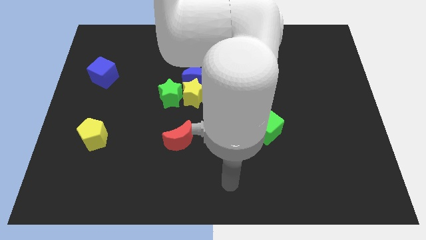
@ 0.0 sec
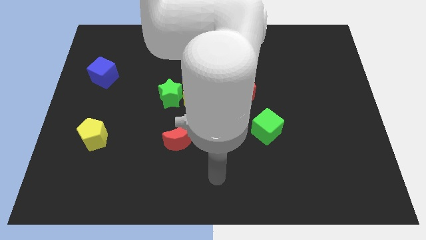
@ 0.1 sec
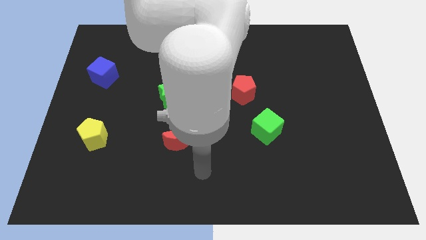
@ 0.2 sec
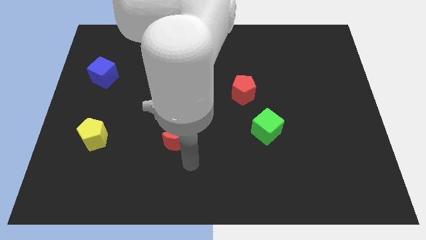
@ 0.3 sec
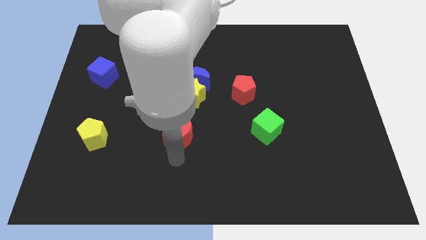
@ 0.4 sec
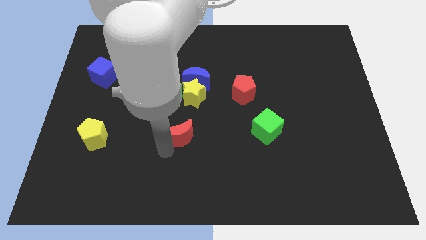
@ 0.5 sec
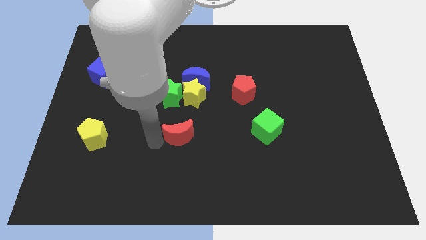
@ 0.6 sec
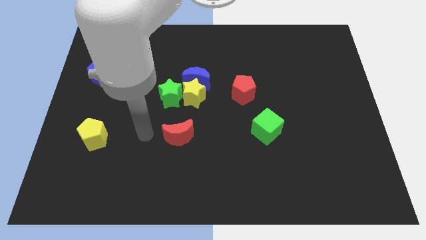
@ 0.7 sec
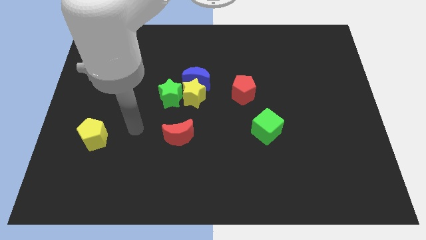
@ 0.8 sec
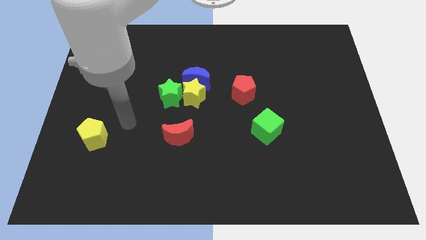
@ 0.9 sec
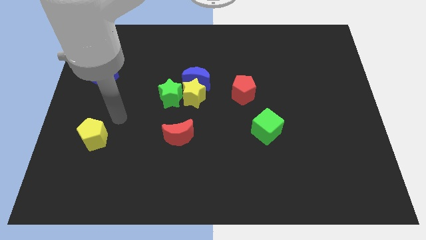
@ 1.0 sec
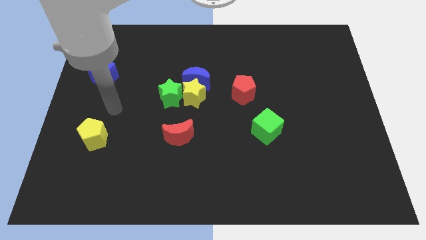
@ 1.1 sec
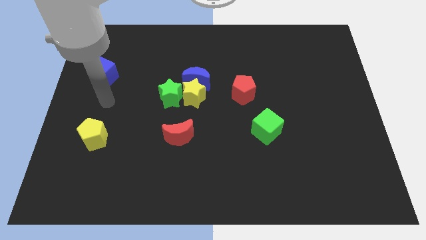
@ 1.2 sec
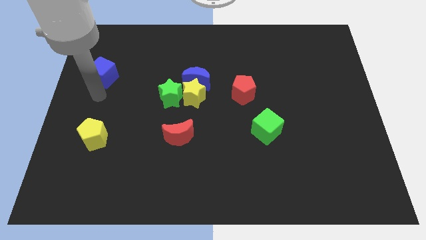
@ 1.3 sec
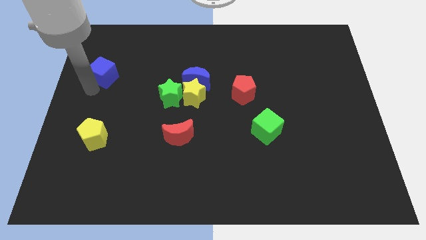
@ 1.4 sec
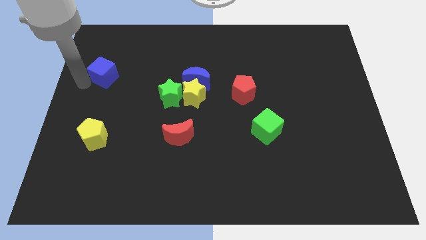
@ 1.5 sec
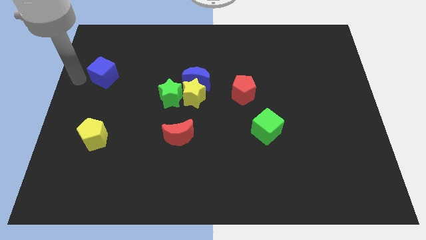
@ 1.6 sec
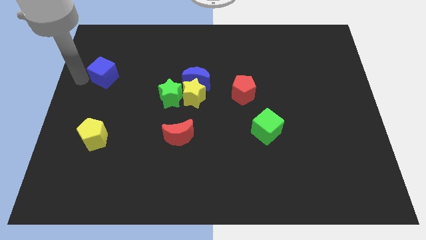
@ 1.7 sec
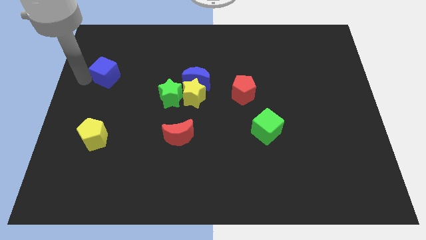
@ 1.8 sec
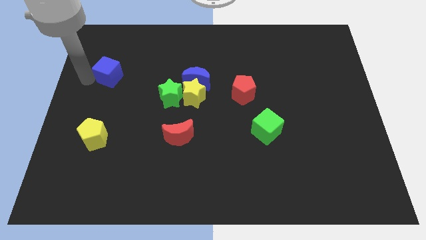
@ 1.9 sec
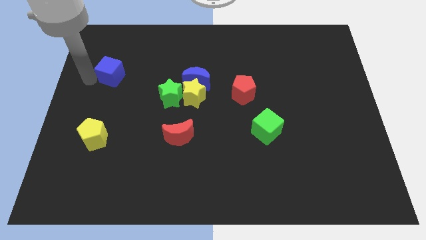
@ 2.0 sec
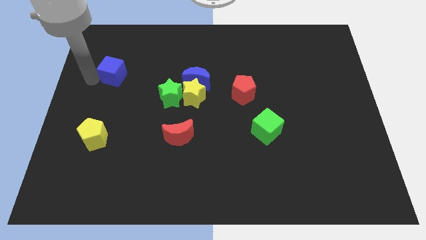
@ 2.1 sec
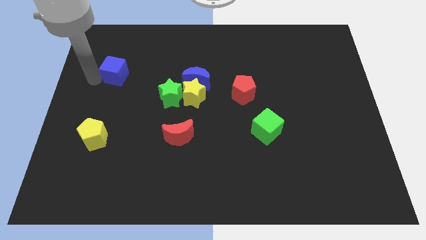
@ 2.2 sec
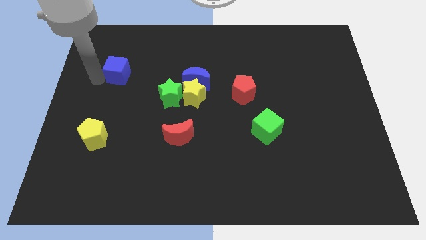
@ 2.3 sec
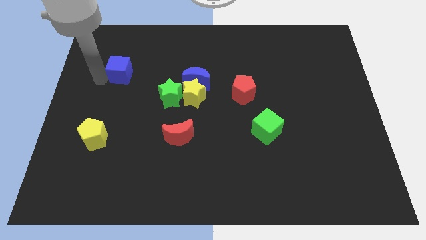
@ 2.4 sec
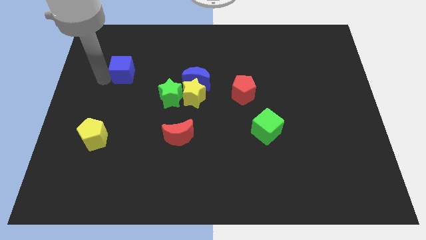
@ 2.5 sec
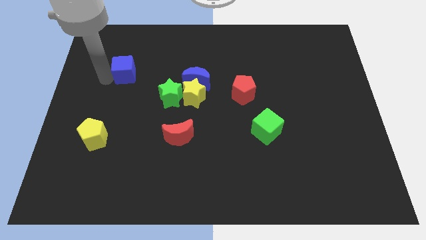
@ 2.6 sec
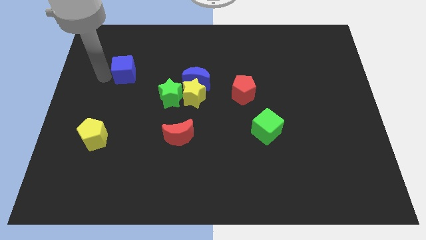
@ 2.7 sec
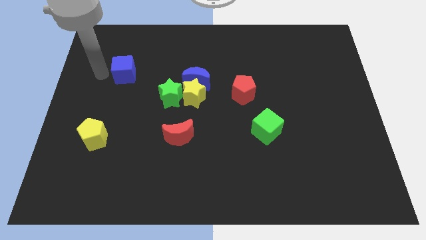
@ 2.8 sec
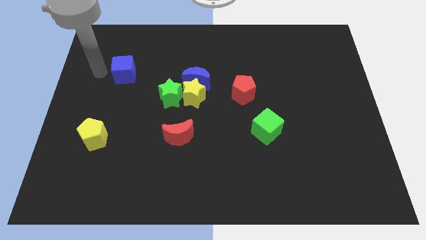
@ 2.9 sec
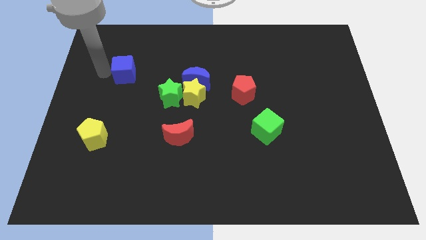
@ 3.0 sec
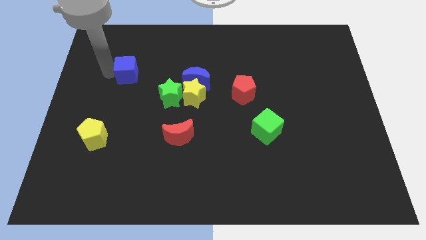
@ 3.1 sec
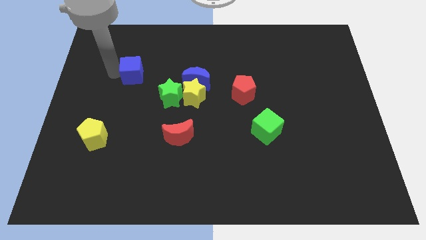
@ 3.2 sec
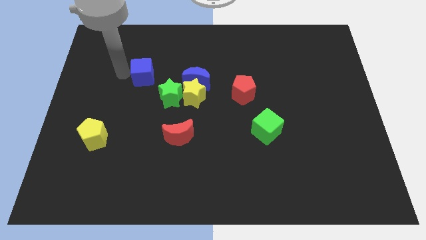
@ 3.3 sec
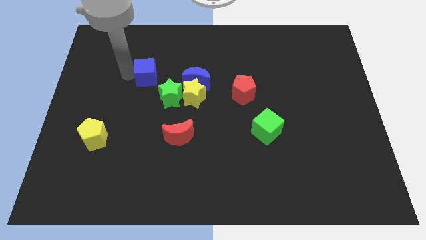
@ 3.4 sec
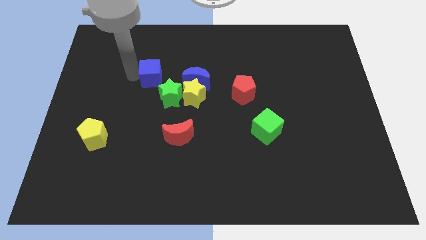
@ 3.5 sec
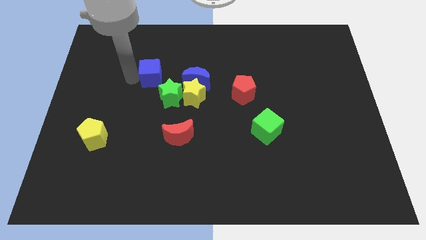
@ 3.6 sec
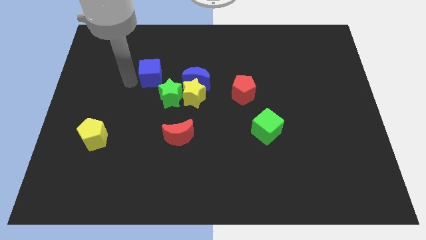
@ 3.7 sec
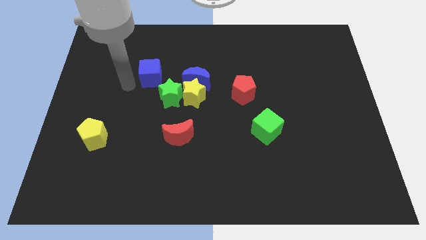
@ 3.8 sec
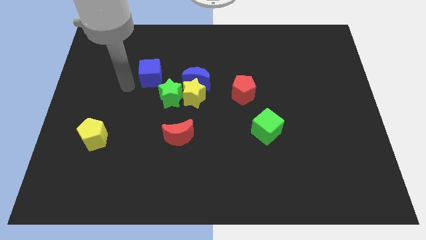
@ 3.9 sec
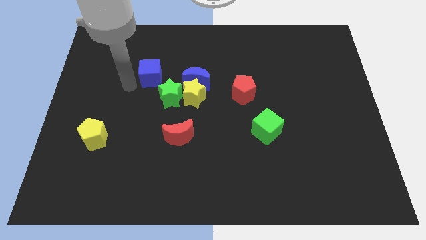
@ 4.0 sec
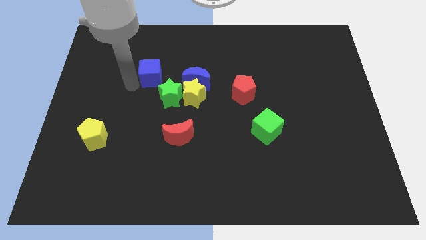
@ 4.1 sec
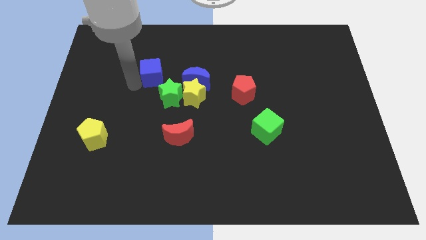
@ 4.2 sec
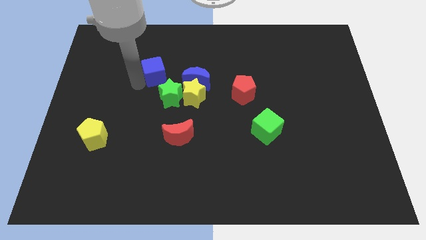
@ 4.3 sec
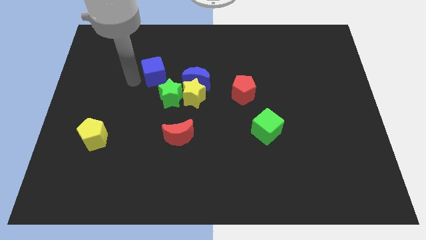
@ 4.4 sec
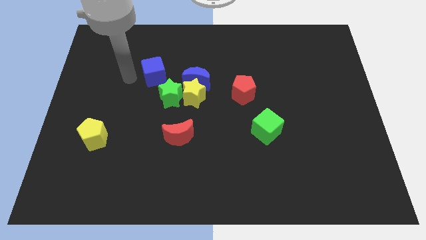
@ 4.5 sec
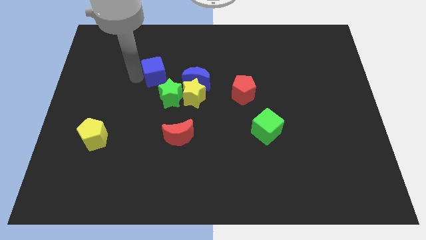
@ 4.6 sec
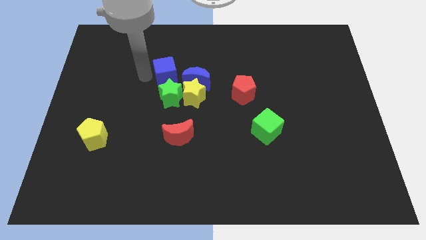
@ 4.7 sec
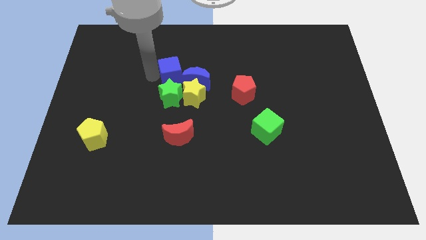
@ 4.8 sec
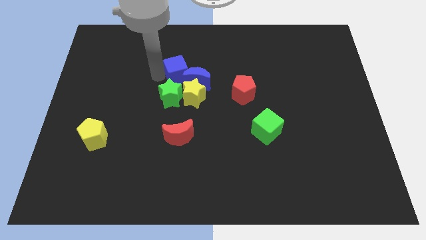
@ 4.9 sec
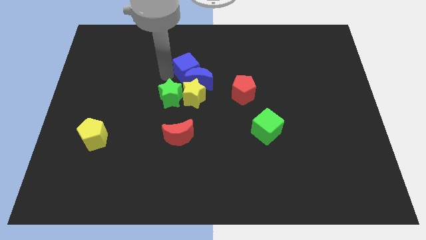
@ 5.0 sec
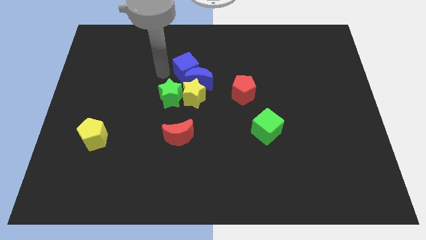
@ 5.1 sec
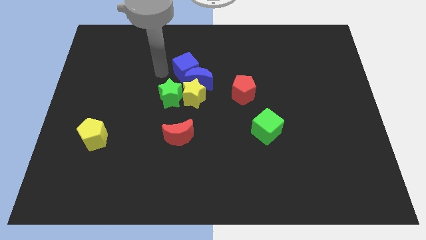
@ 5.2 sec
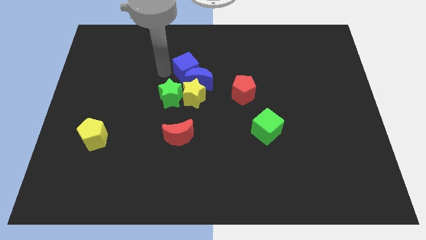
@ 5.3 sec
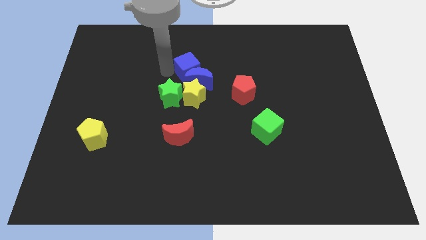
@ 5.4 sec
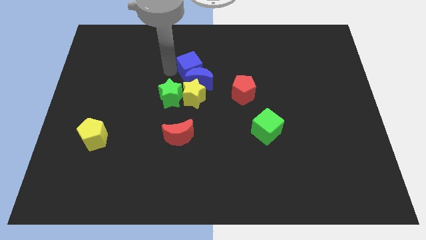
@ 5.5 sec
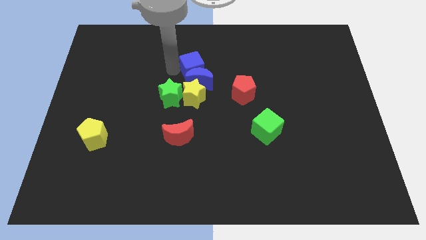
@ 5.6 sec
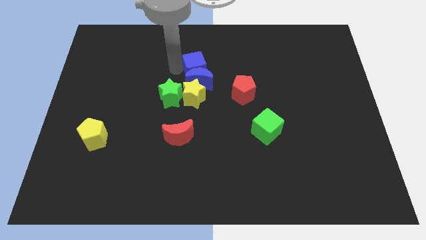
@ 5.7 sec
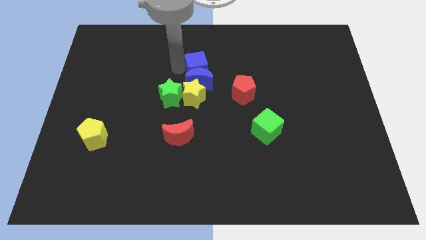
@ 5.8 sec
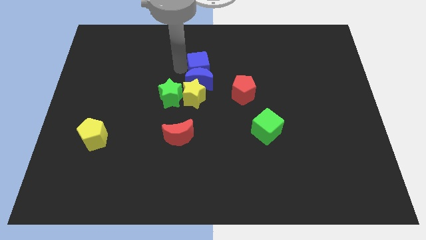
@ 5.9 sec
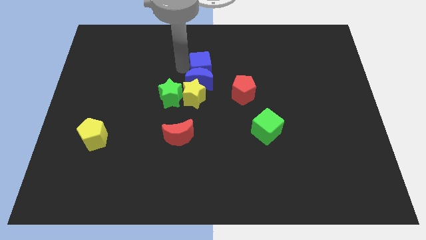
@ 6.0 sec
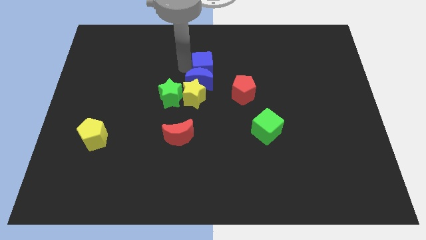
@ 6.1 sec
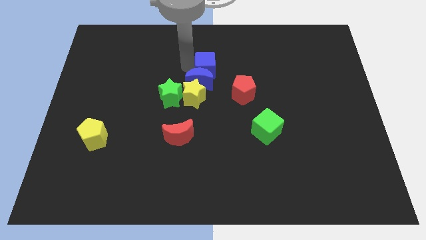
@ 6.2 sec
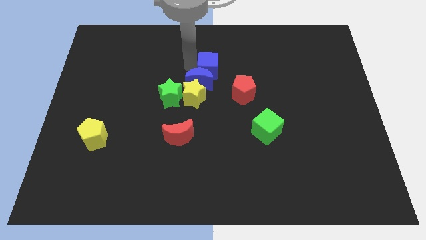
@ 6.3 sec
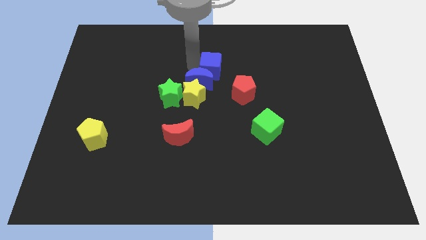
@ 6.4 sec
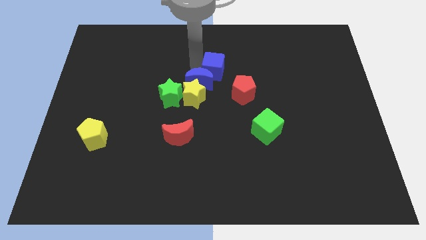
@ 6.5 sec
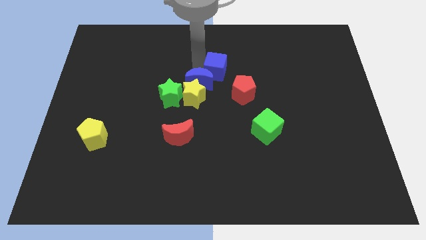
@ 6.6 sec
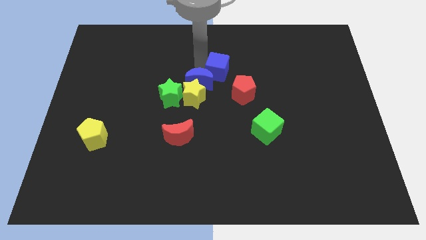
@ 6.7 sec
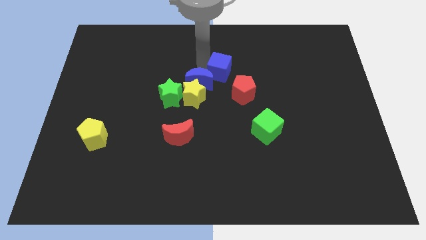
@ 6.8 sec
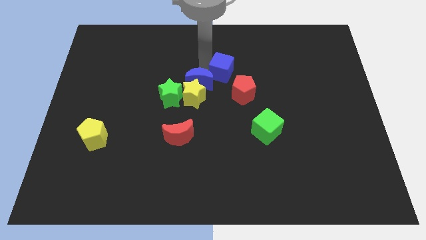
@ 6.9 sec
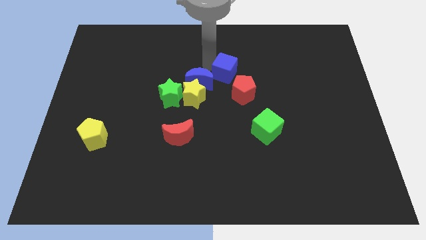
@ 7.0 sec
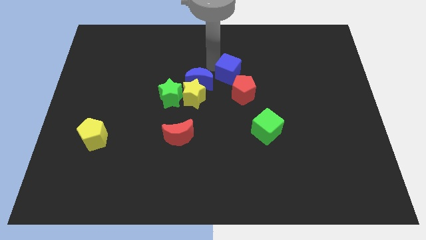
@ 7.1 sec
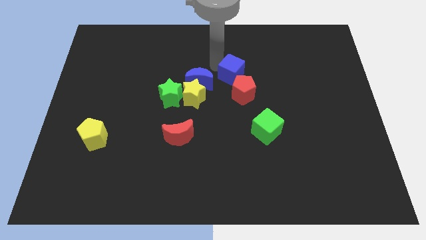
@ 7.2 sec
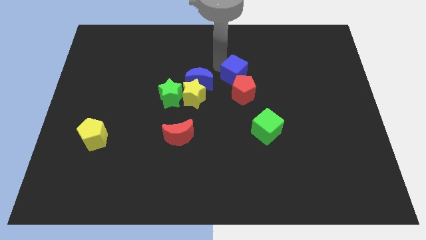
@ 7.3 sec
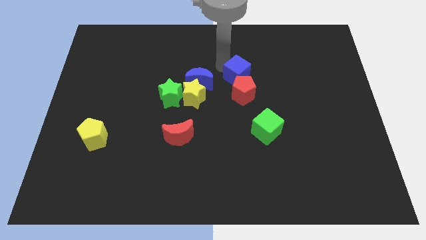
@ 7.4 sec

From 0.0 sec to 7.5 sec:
move the blue cube towards the red pentagon

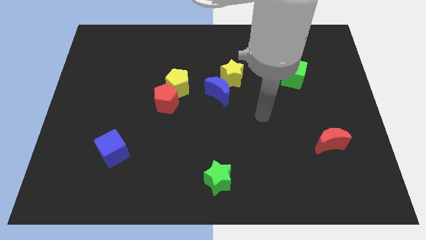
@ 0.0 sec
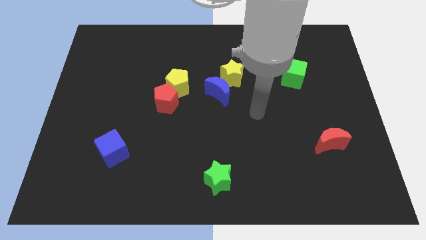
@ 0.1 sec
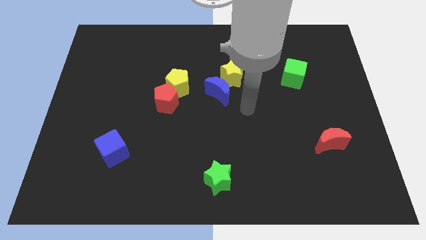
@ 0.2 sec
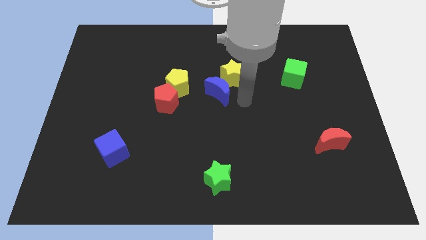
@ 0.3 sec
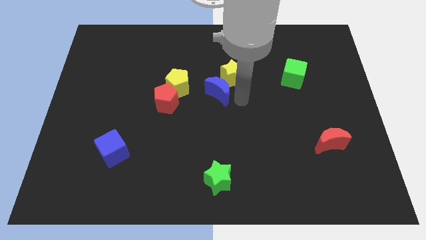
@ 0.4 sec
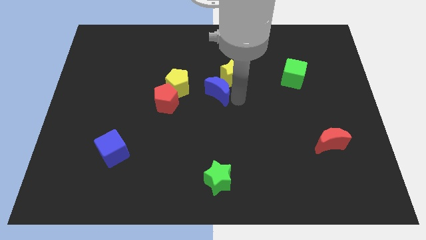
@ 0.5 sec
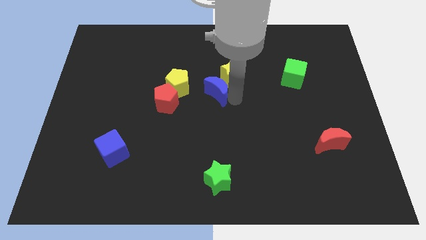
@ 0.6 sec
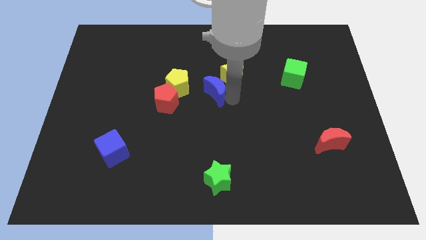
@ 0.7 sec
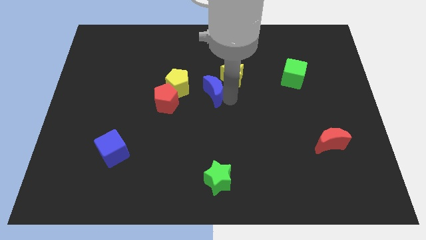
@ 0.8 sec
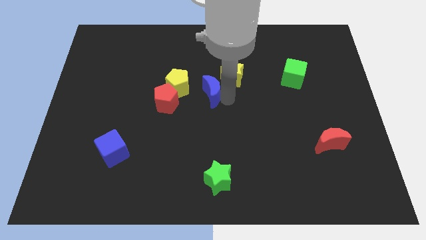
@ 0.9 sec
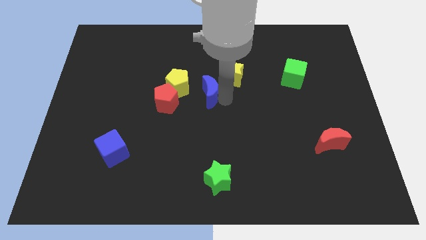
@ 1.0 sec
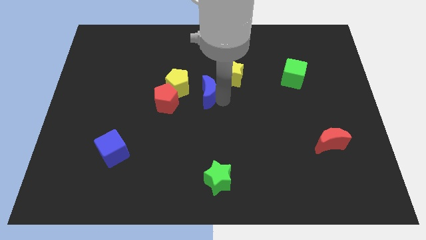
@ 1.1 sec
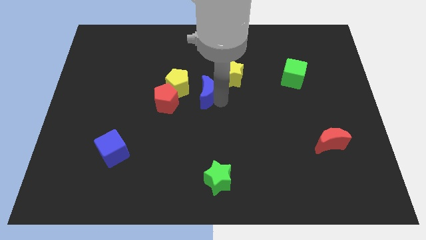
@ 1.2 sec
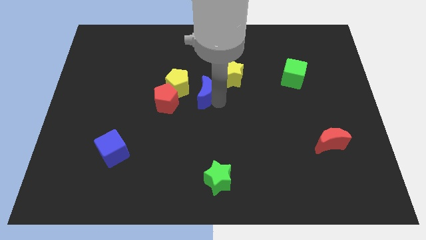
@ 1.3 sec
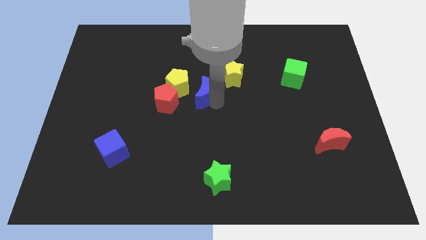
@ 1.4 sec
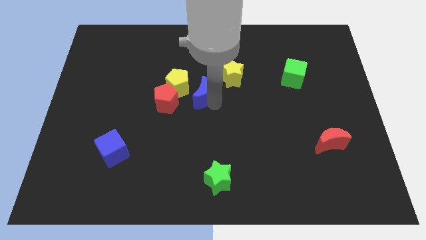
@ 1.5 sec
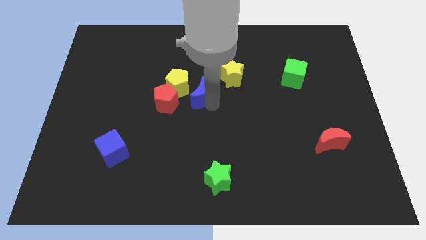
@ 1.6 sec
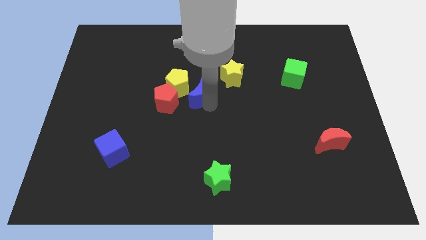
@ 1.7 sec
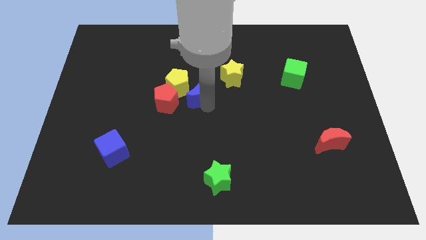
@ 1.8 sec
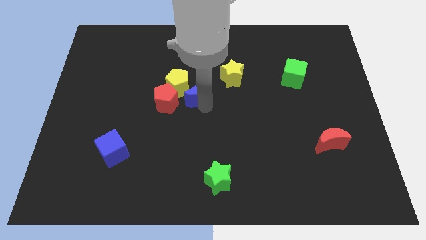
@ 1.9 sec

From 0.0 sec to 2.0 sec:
push the blue moon to the yellow pentagon
